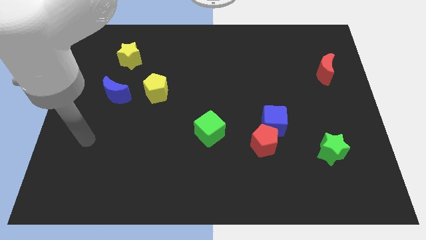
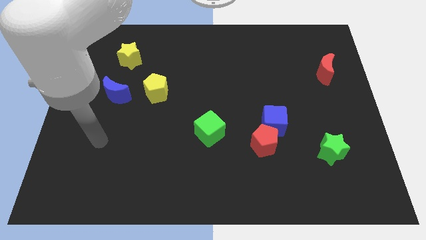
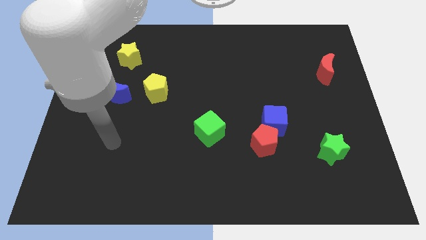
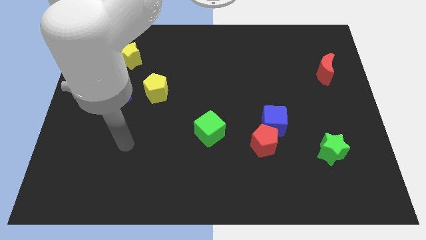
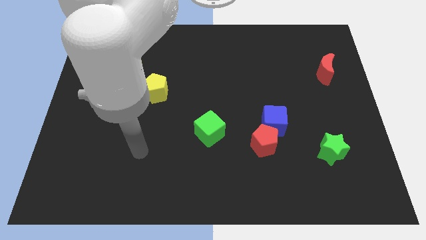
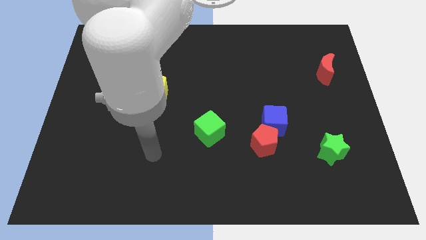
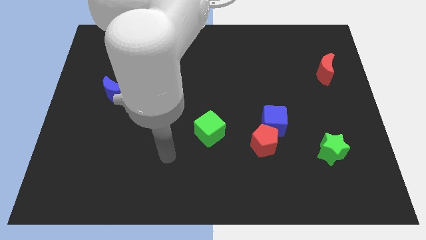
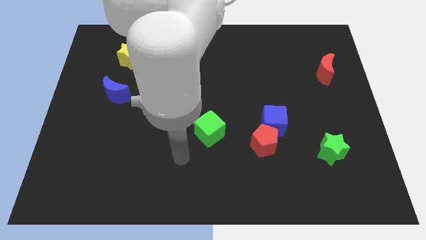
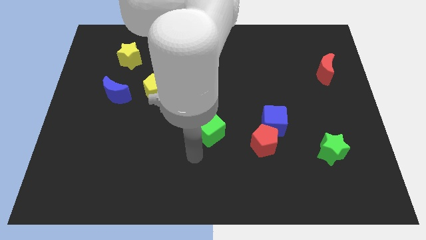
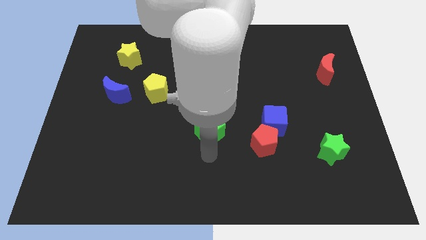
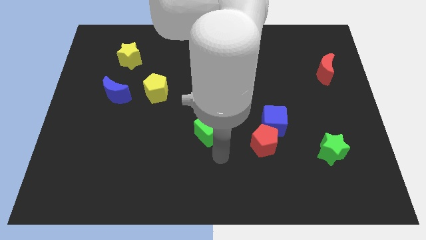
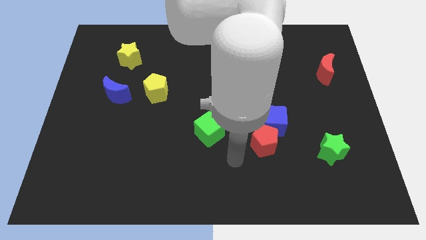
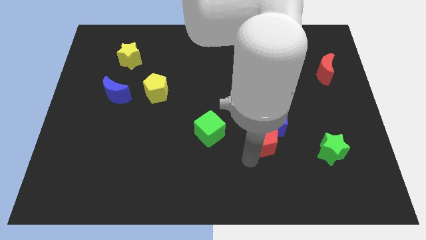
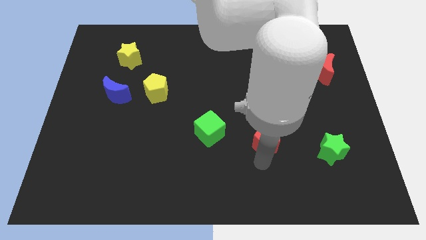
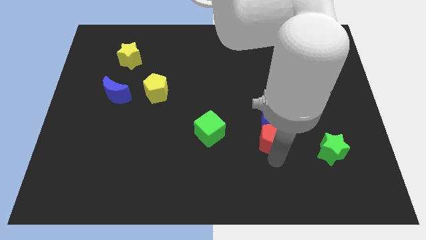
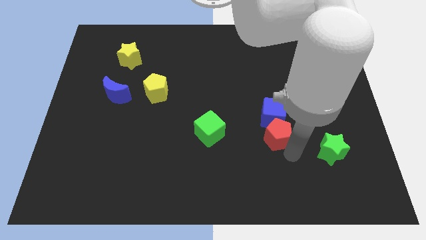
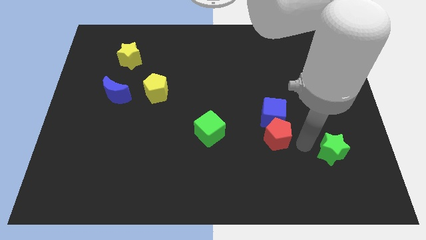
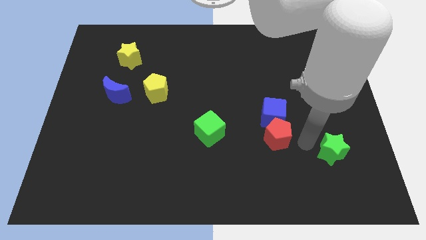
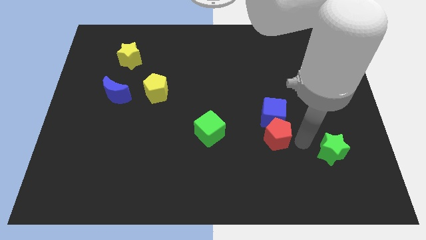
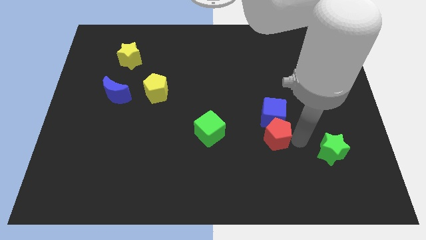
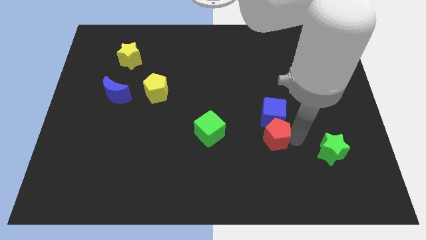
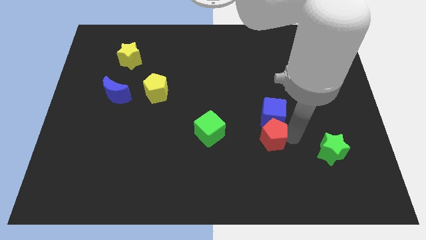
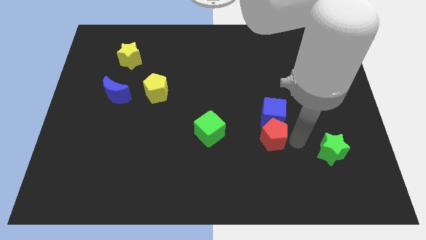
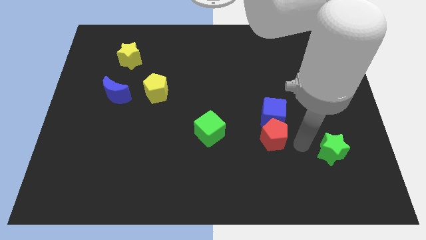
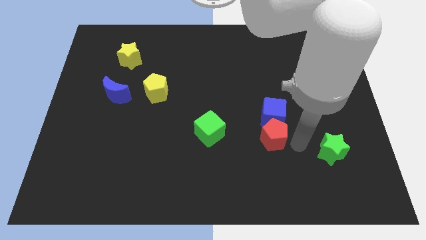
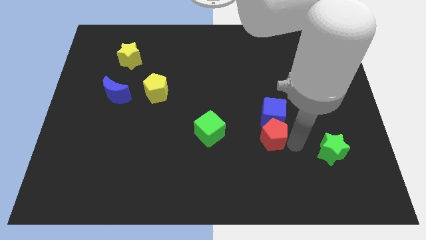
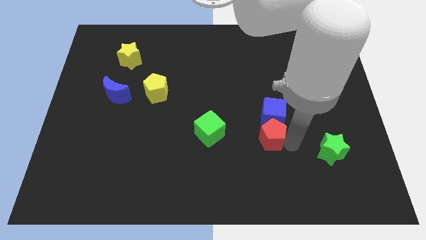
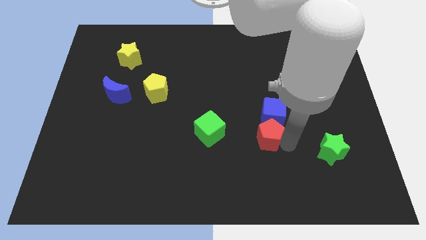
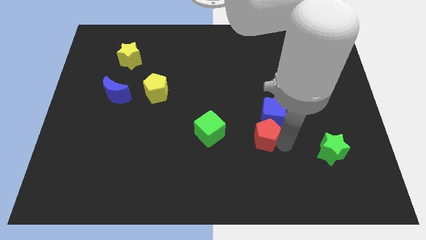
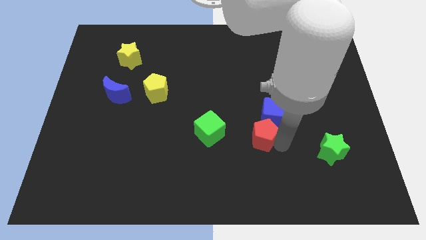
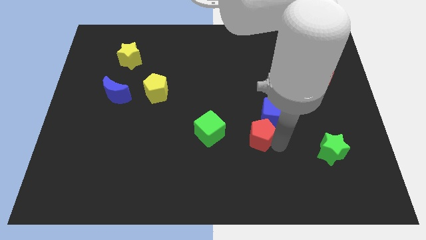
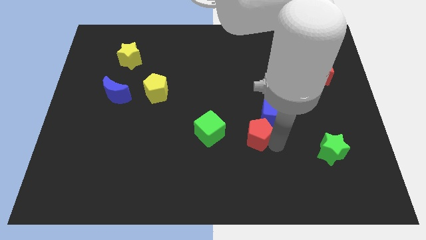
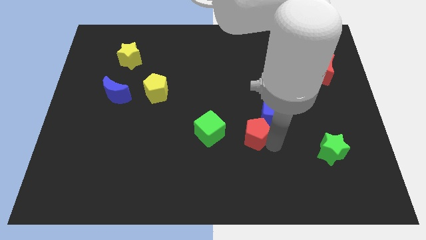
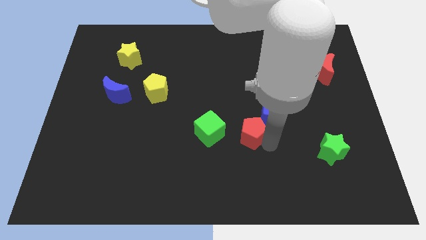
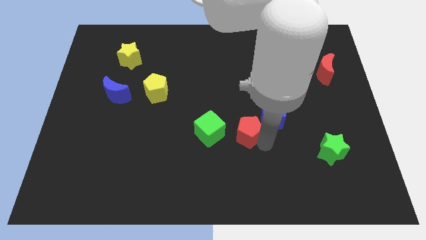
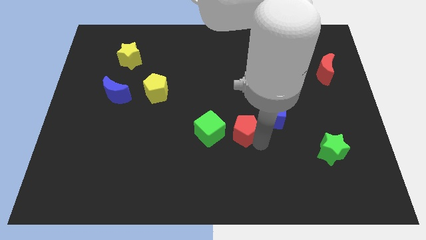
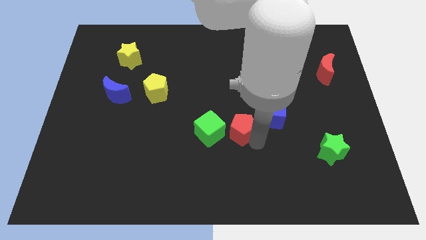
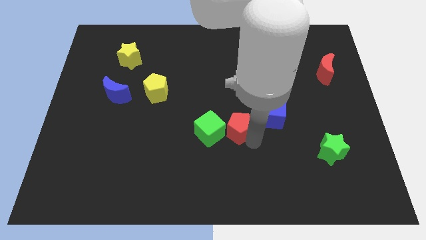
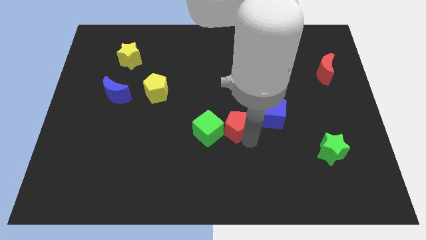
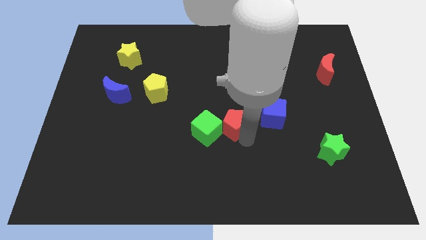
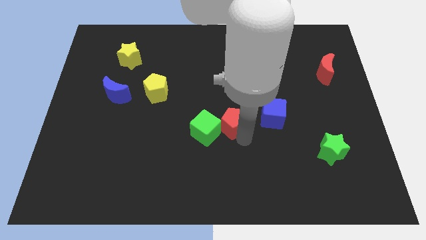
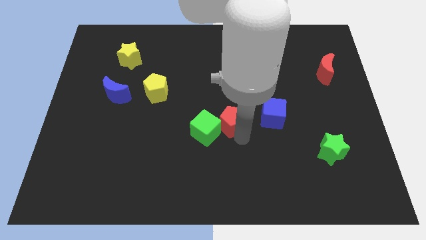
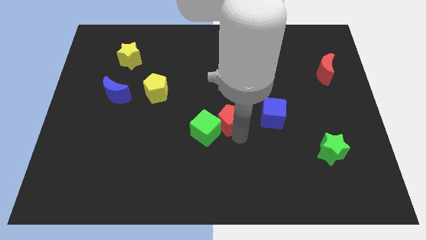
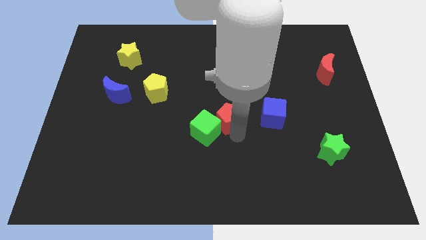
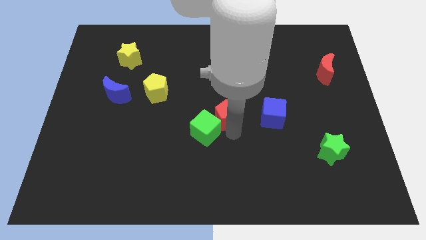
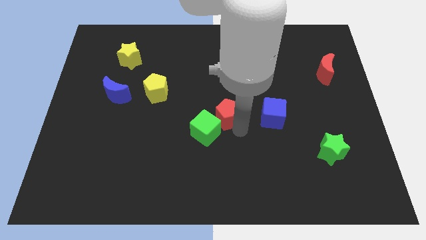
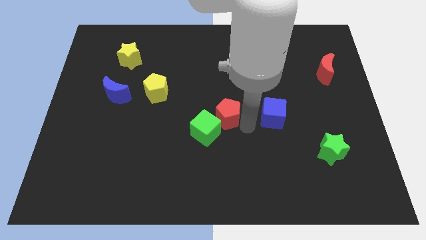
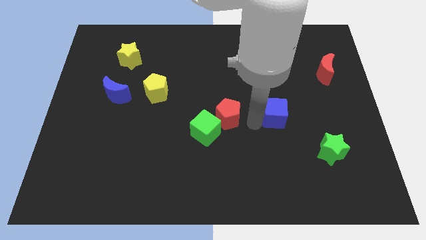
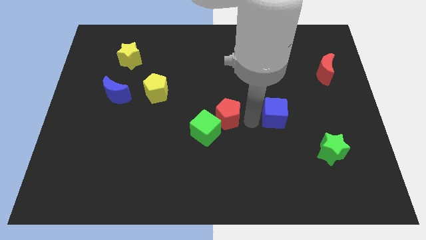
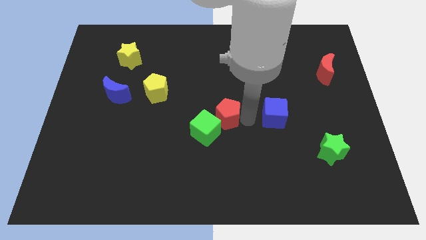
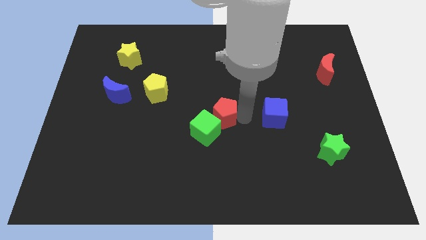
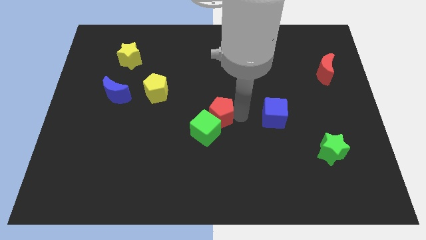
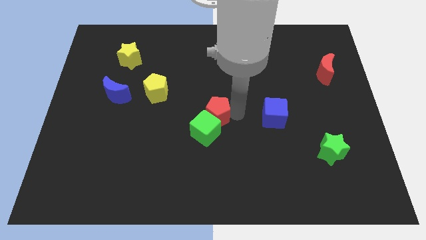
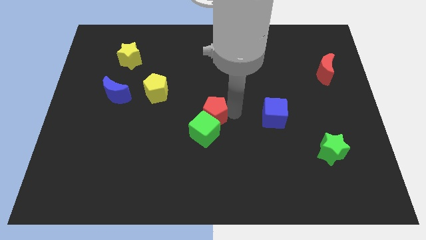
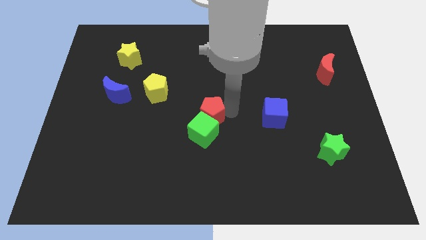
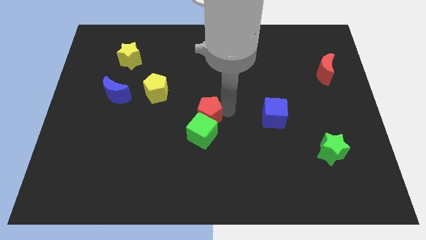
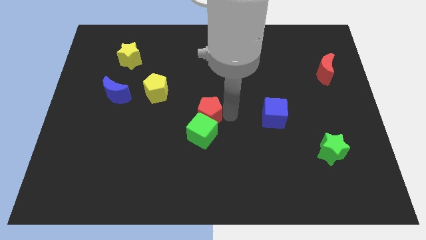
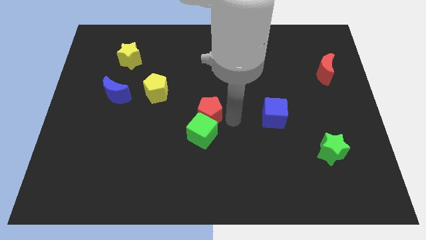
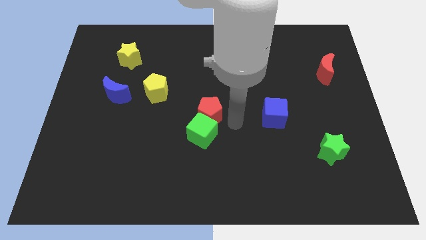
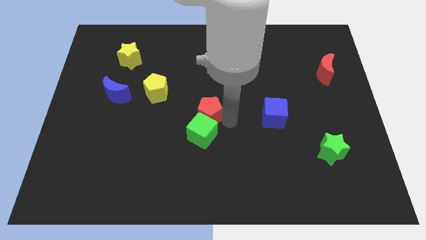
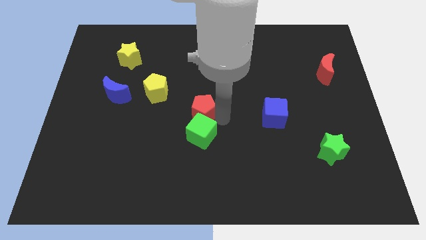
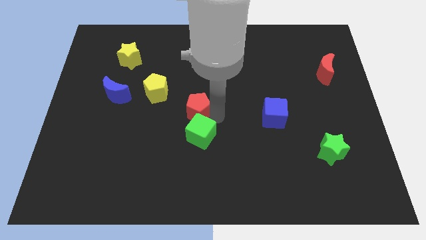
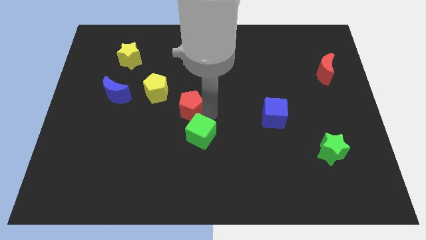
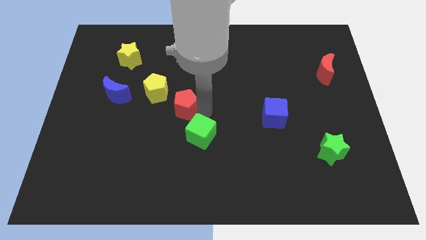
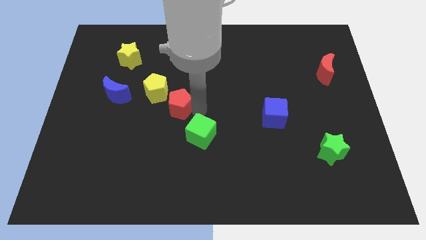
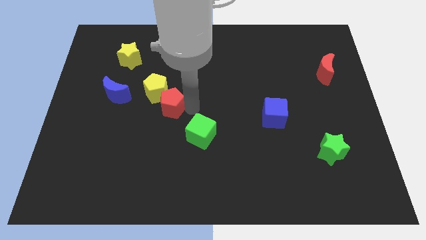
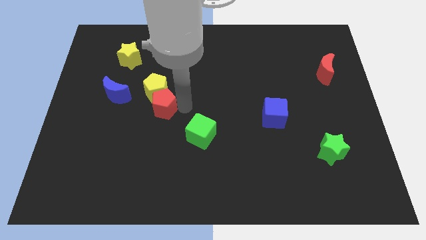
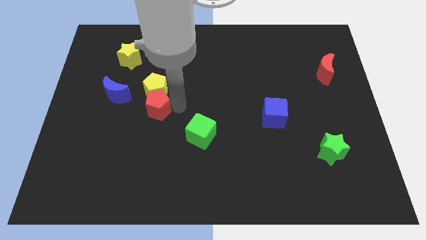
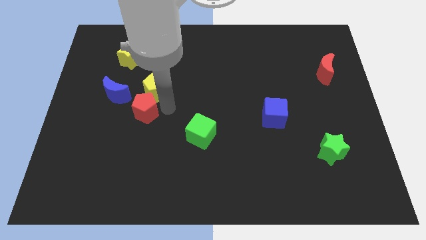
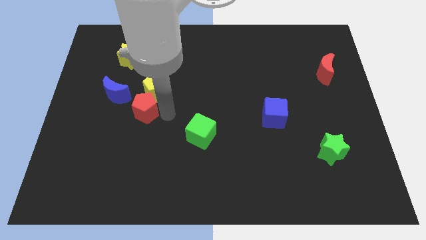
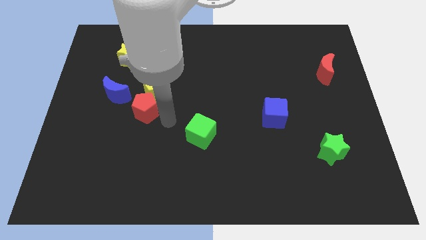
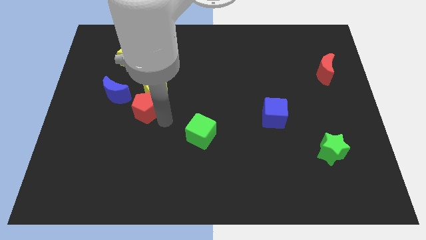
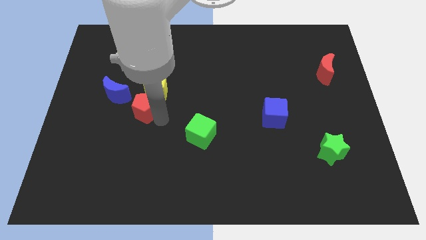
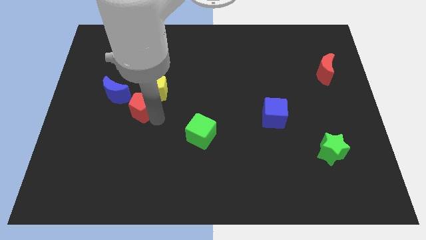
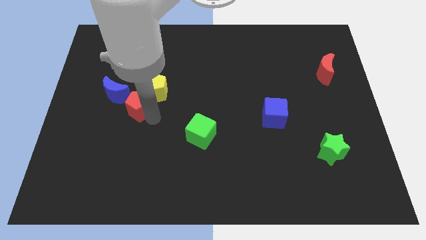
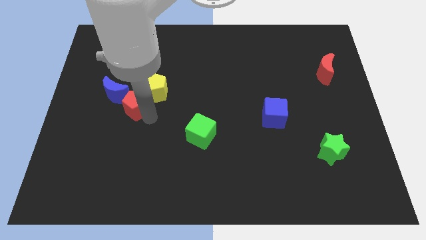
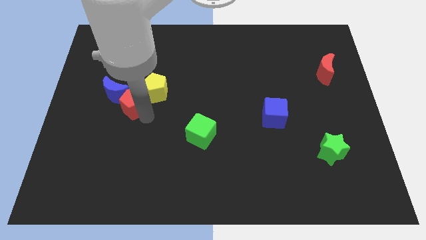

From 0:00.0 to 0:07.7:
move the red pentagon close to the blue moon
